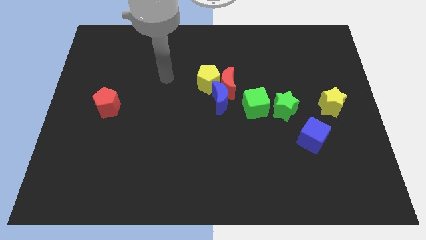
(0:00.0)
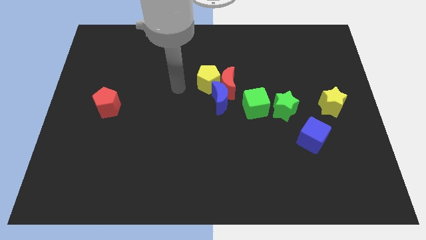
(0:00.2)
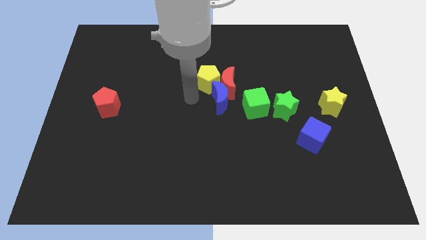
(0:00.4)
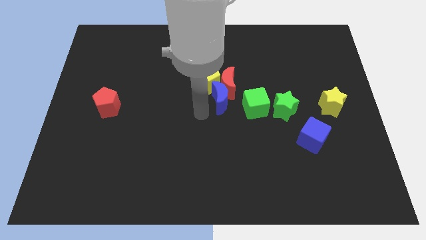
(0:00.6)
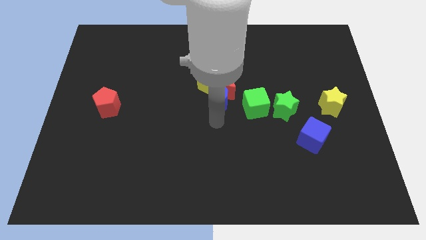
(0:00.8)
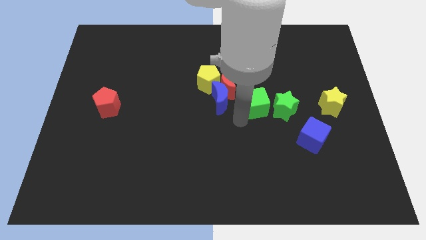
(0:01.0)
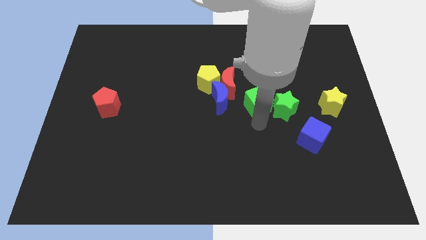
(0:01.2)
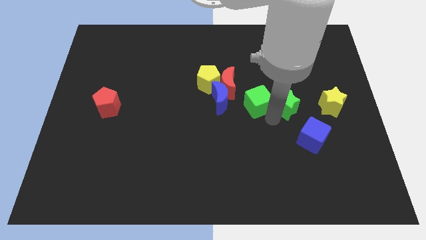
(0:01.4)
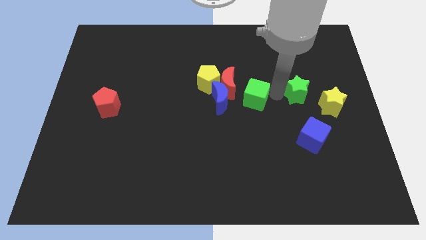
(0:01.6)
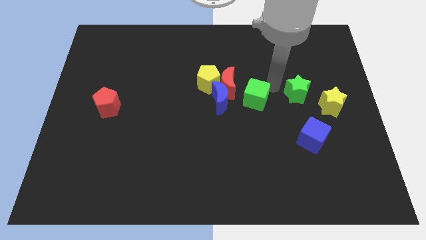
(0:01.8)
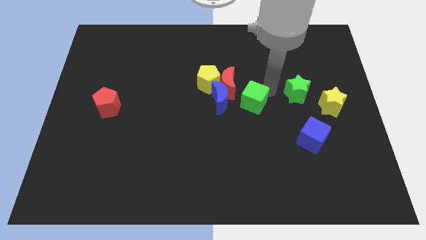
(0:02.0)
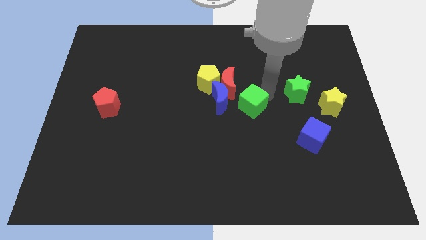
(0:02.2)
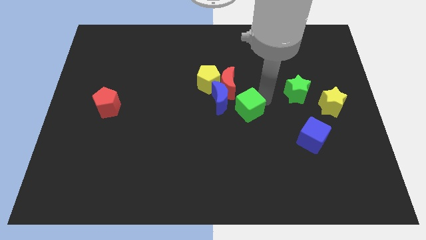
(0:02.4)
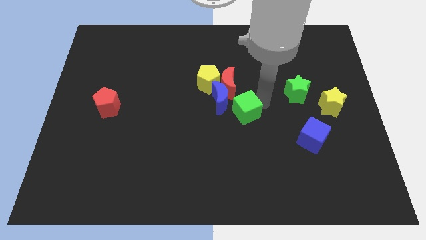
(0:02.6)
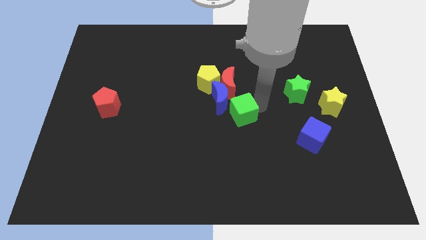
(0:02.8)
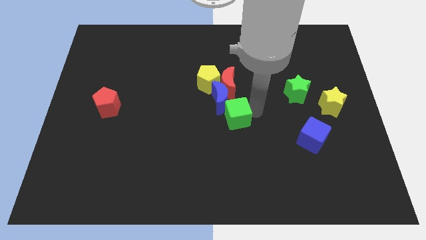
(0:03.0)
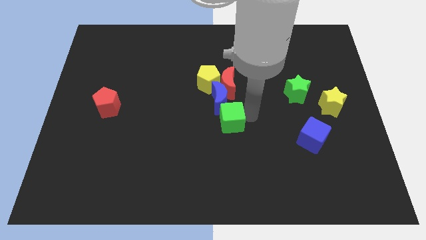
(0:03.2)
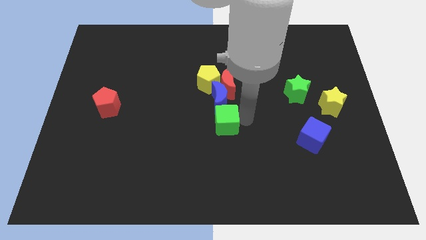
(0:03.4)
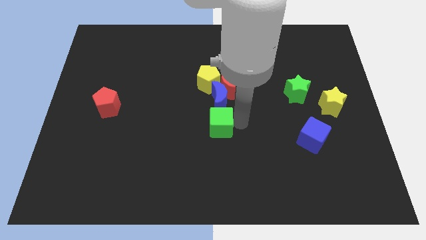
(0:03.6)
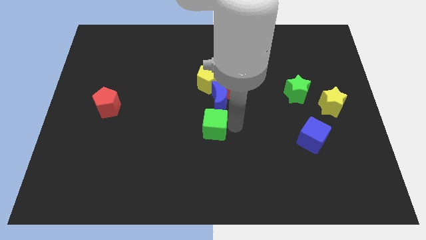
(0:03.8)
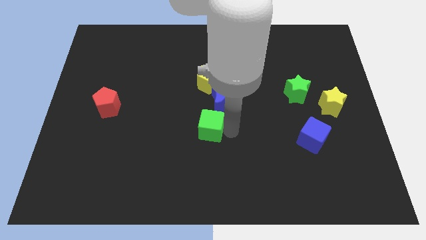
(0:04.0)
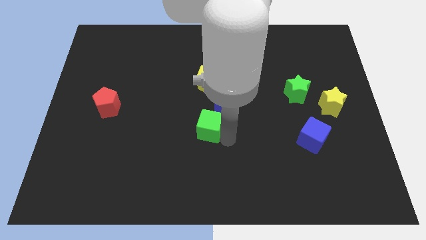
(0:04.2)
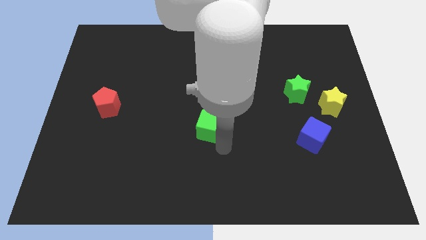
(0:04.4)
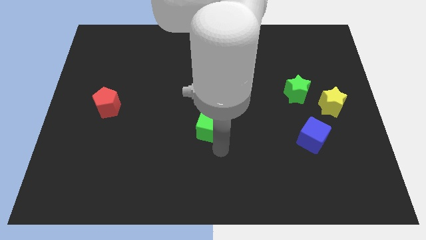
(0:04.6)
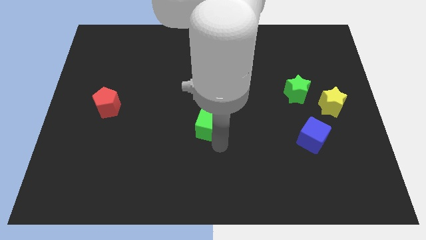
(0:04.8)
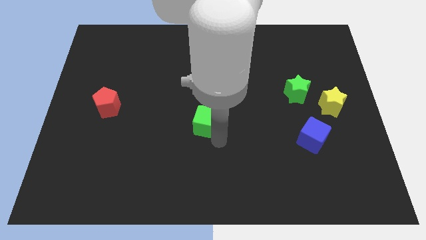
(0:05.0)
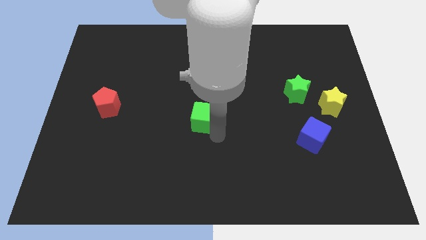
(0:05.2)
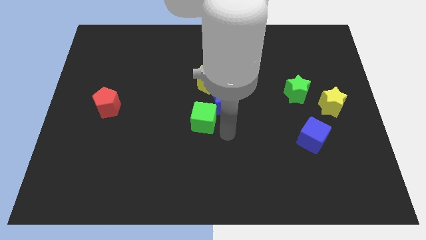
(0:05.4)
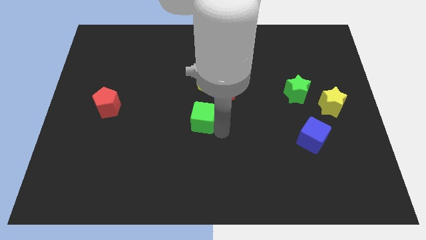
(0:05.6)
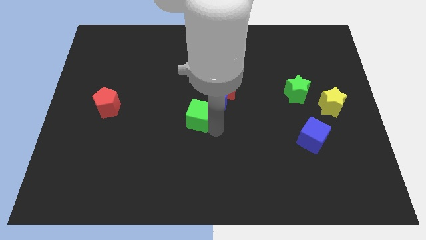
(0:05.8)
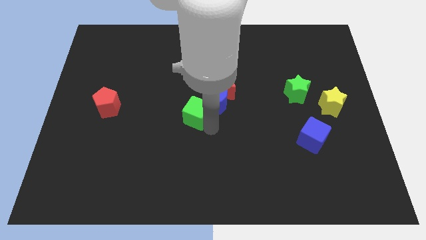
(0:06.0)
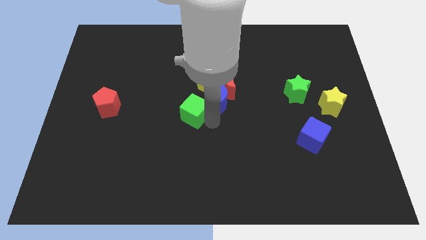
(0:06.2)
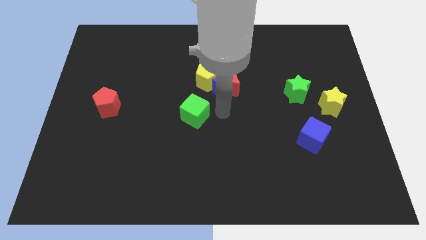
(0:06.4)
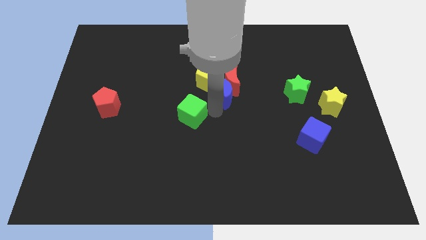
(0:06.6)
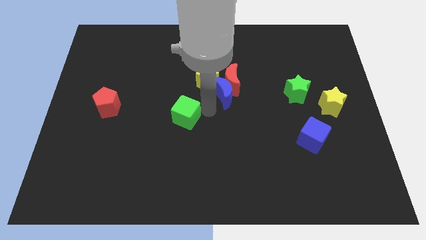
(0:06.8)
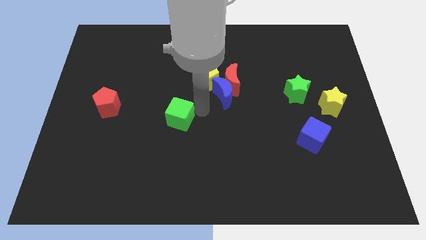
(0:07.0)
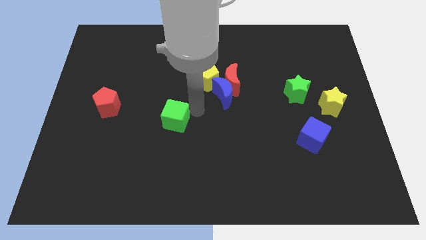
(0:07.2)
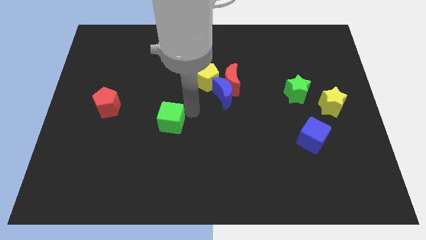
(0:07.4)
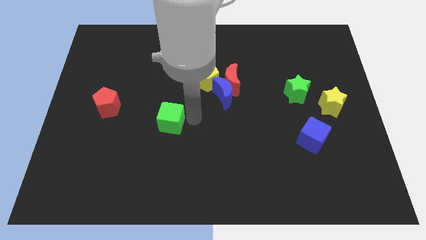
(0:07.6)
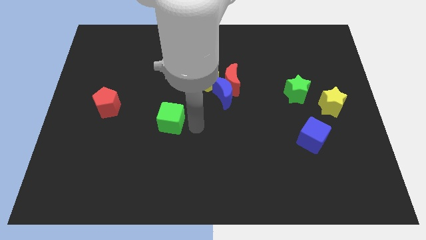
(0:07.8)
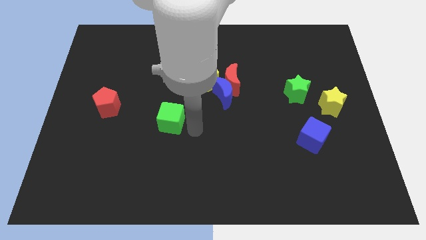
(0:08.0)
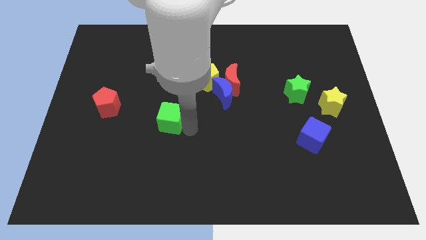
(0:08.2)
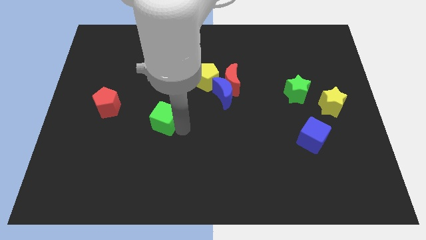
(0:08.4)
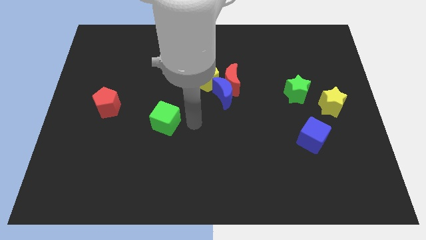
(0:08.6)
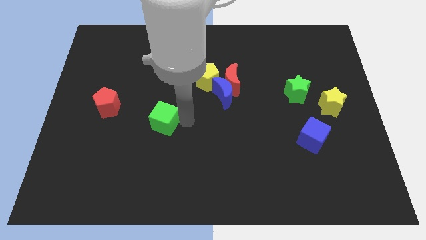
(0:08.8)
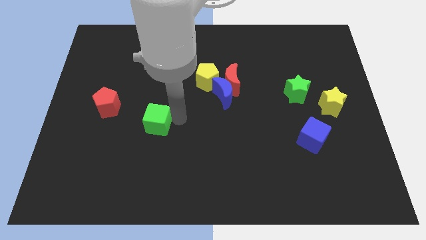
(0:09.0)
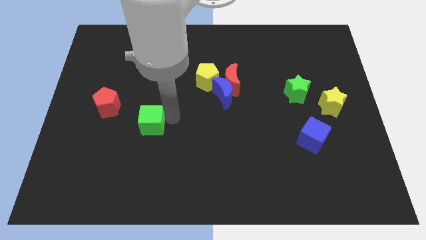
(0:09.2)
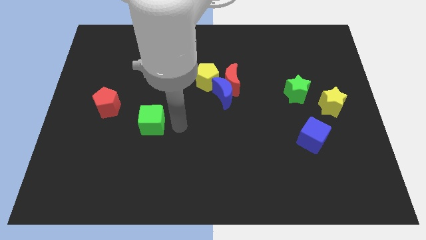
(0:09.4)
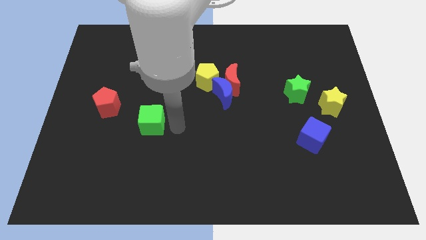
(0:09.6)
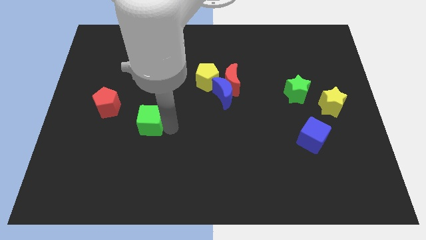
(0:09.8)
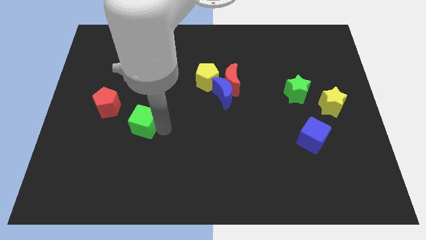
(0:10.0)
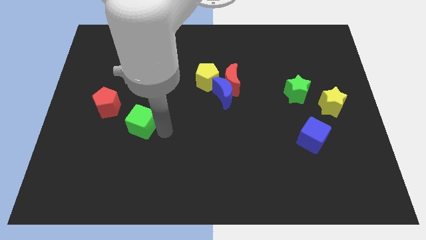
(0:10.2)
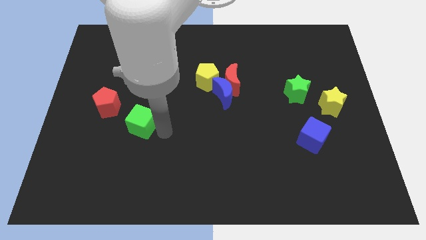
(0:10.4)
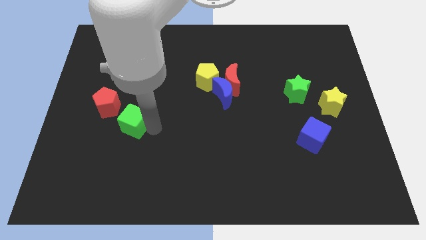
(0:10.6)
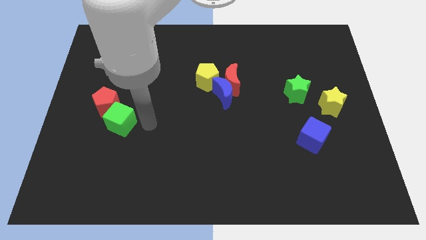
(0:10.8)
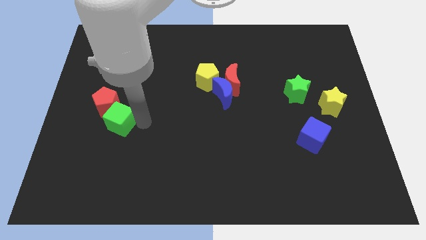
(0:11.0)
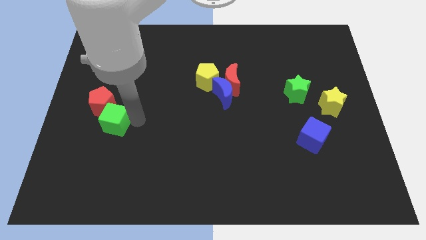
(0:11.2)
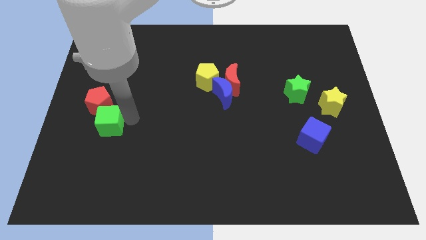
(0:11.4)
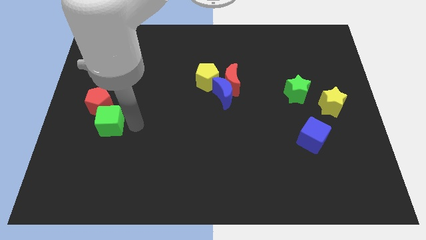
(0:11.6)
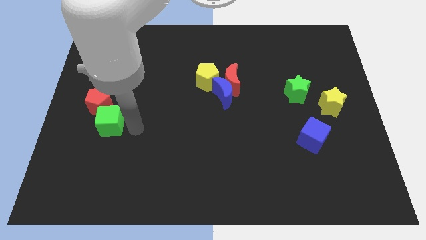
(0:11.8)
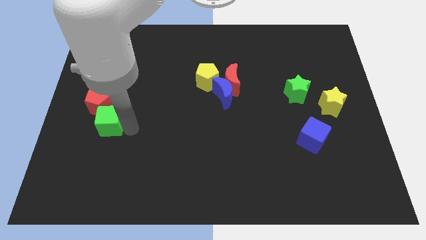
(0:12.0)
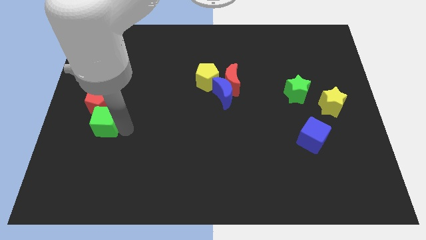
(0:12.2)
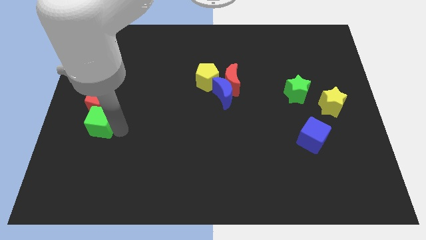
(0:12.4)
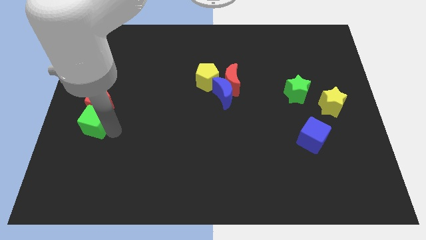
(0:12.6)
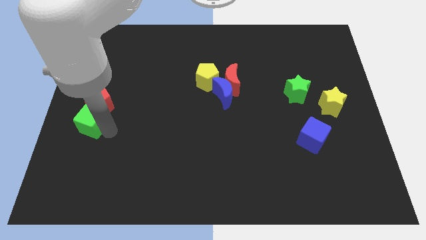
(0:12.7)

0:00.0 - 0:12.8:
slide the green cube to the center left
